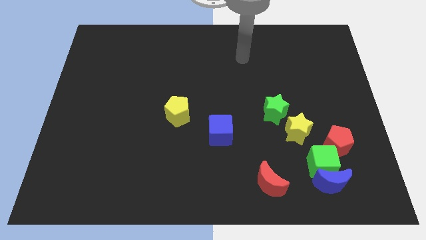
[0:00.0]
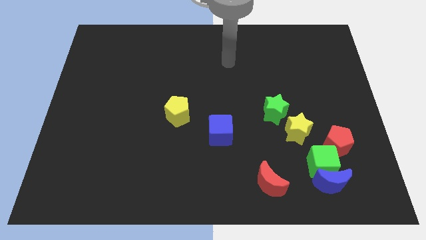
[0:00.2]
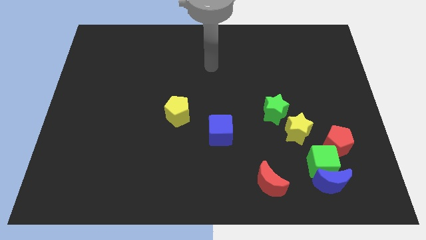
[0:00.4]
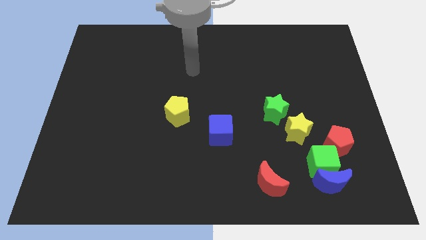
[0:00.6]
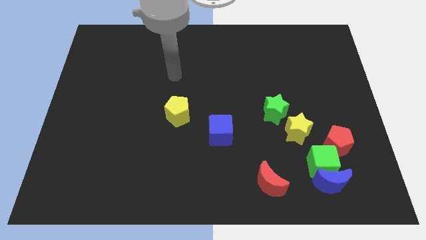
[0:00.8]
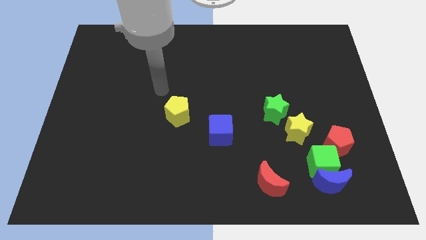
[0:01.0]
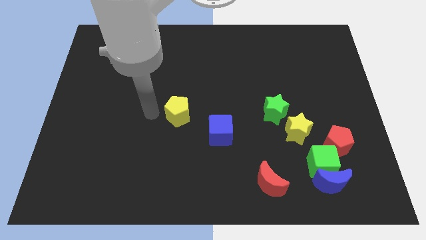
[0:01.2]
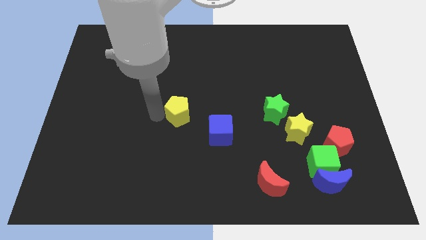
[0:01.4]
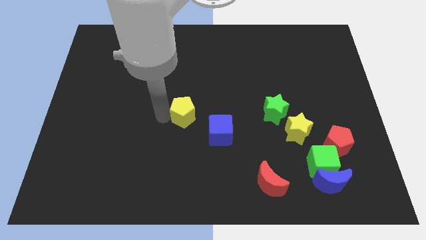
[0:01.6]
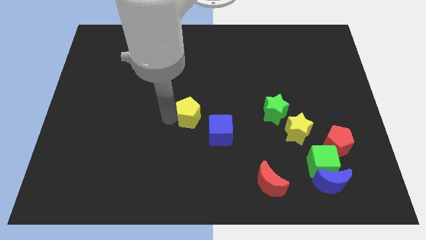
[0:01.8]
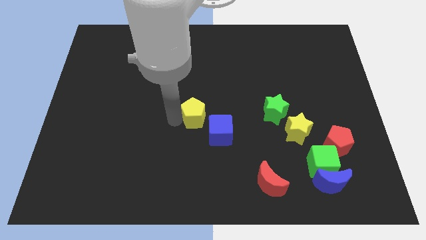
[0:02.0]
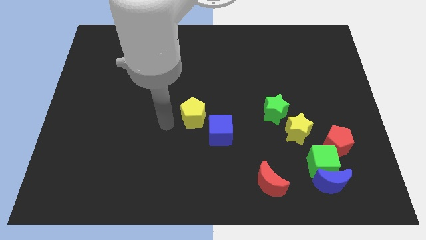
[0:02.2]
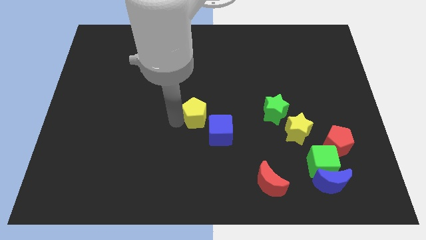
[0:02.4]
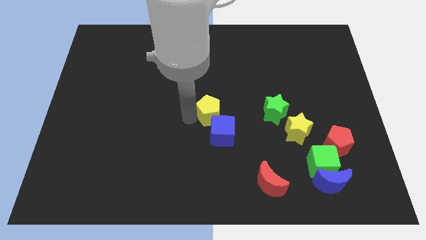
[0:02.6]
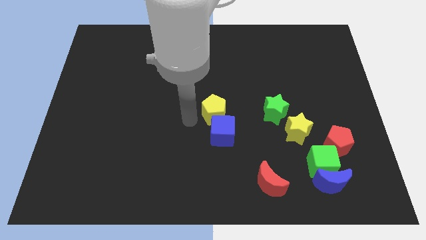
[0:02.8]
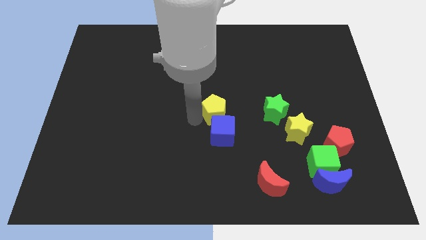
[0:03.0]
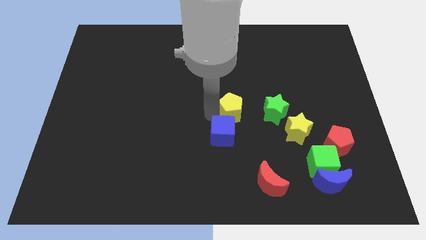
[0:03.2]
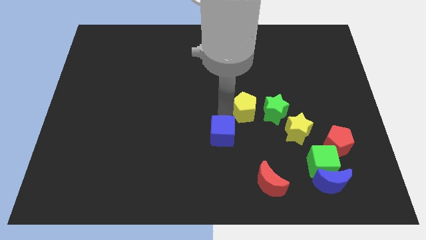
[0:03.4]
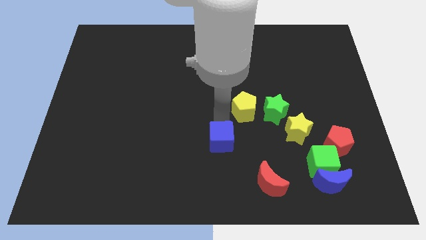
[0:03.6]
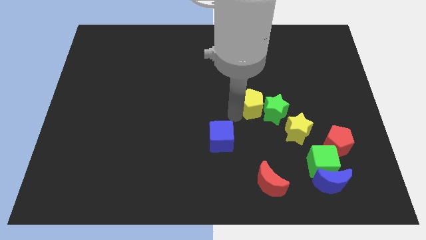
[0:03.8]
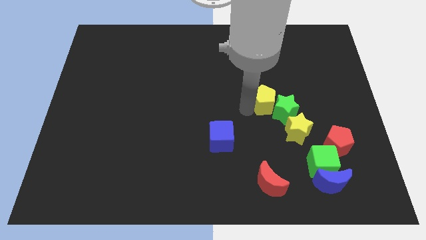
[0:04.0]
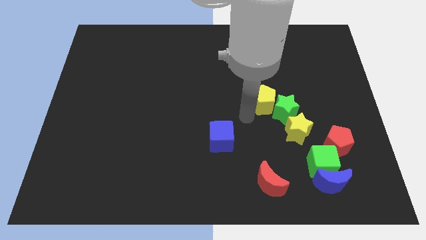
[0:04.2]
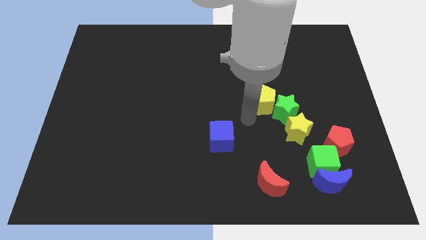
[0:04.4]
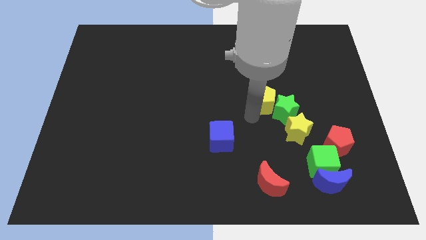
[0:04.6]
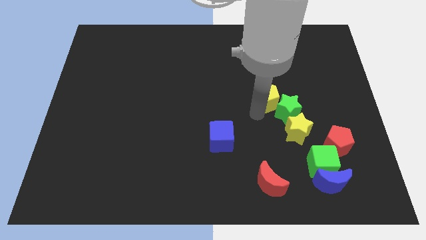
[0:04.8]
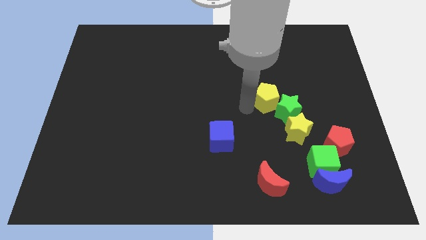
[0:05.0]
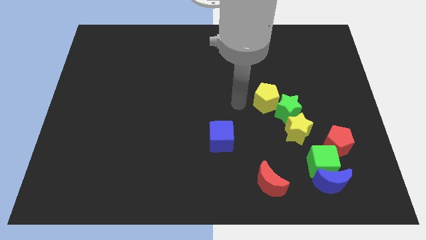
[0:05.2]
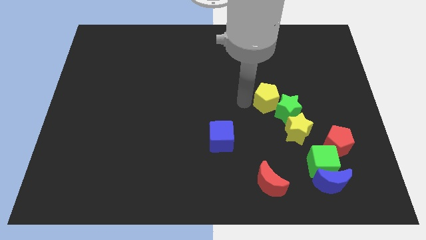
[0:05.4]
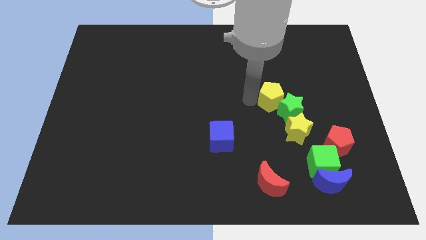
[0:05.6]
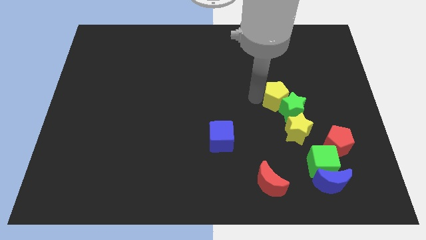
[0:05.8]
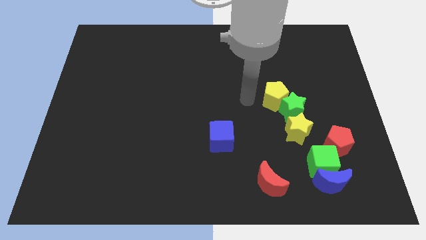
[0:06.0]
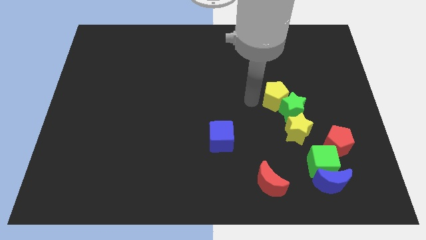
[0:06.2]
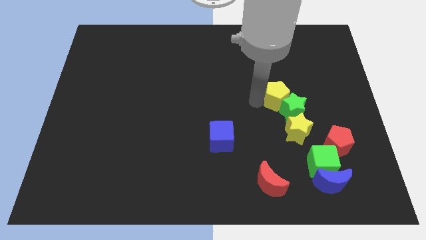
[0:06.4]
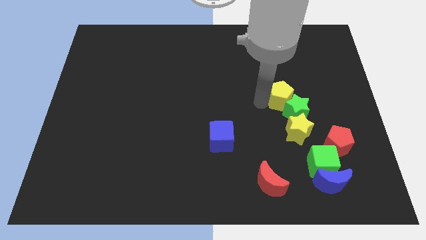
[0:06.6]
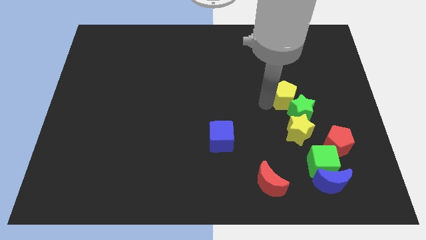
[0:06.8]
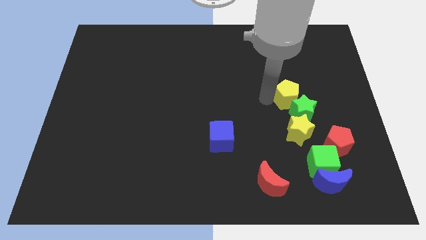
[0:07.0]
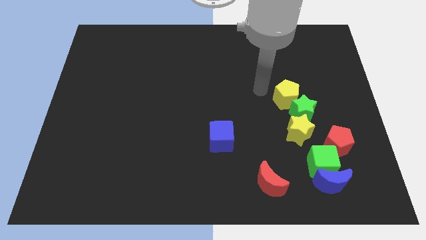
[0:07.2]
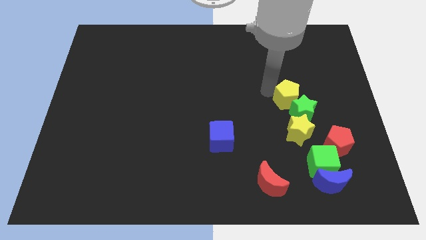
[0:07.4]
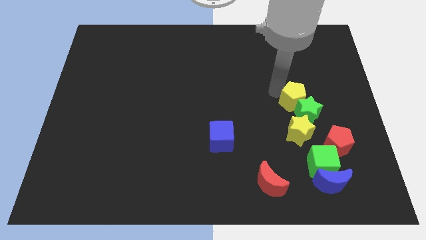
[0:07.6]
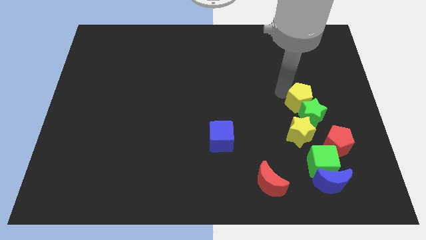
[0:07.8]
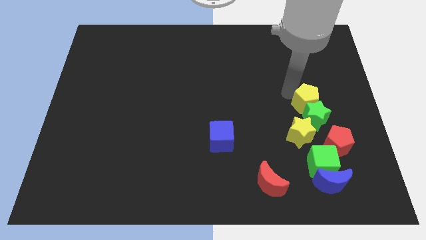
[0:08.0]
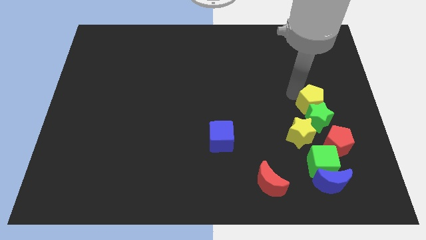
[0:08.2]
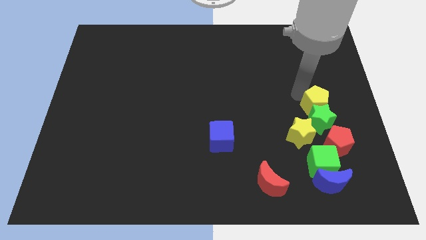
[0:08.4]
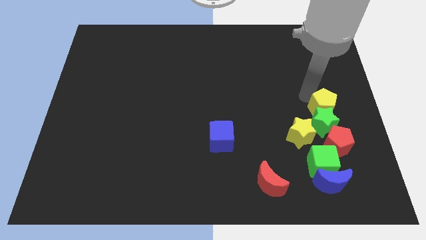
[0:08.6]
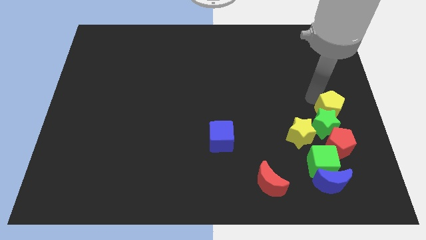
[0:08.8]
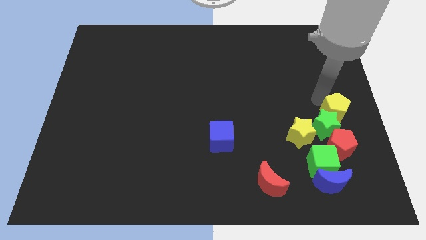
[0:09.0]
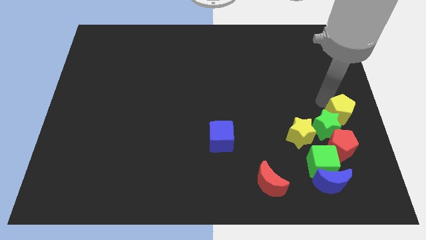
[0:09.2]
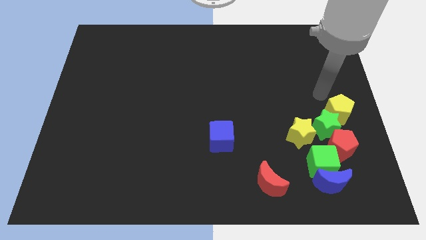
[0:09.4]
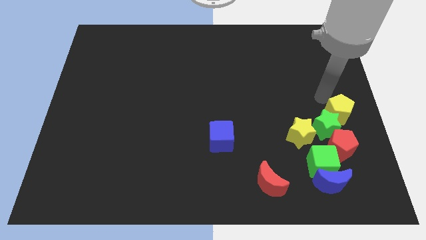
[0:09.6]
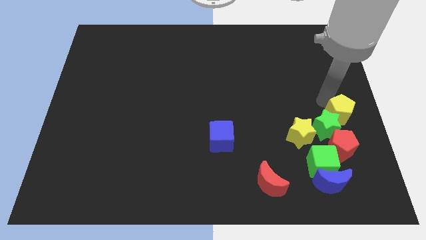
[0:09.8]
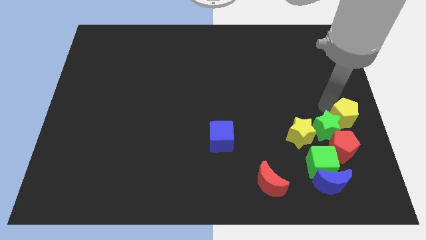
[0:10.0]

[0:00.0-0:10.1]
put the yellow pentagon right of the yellow star

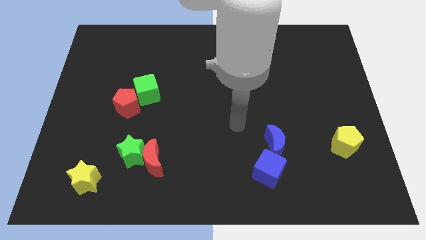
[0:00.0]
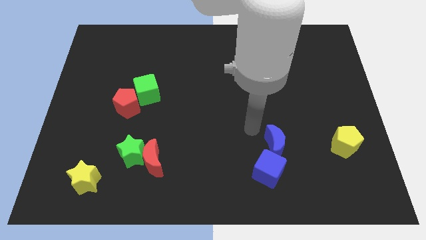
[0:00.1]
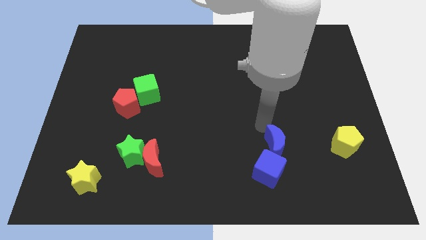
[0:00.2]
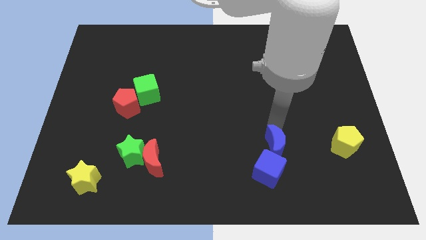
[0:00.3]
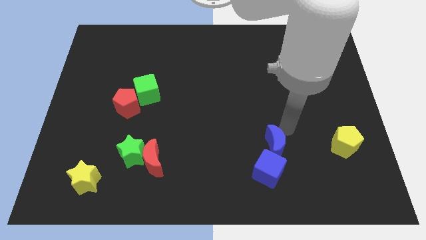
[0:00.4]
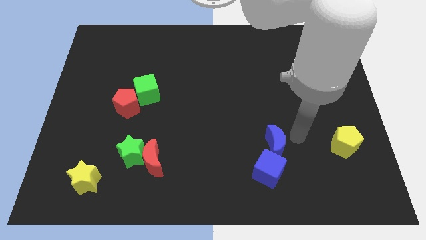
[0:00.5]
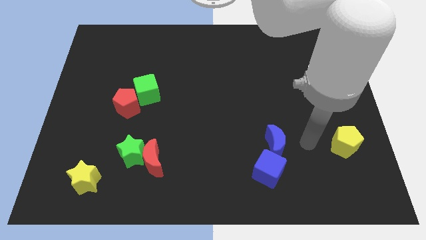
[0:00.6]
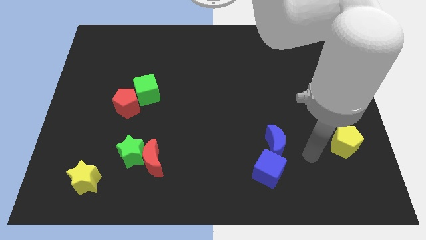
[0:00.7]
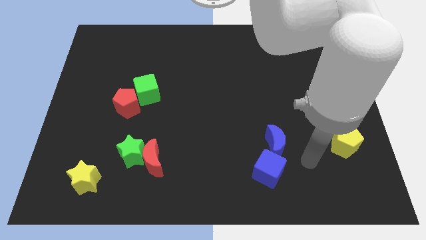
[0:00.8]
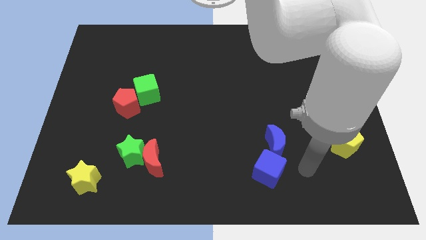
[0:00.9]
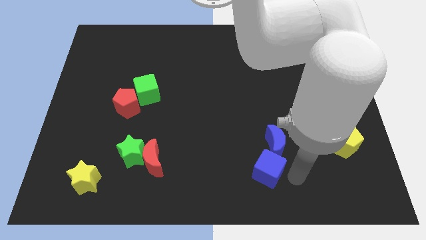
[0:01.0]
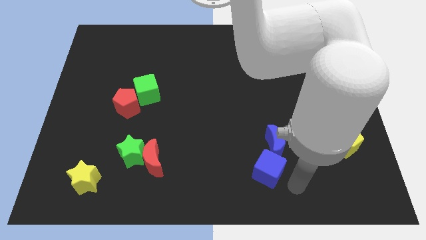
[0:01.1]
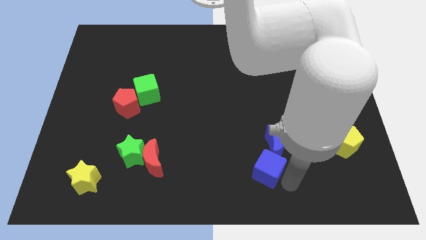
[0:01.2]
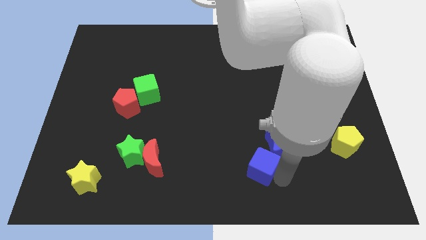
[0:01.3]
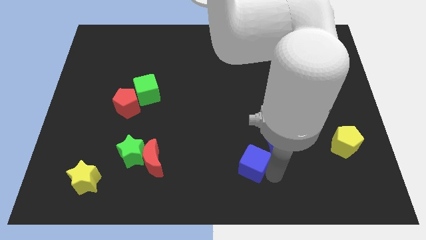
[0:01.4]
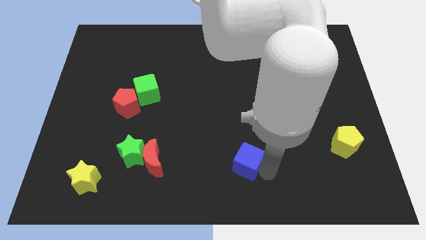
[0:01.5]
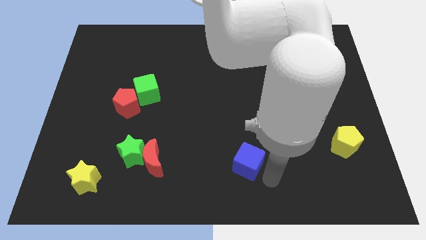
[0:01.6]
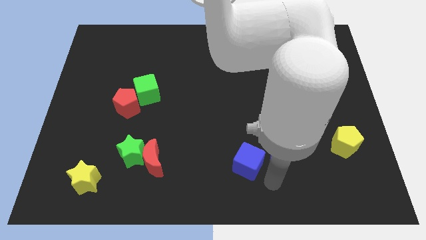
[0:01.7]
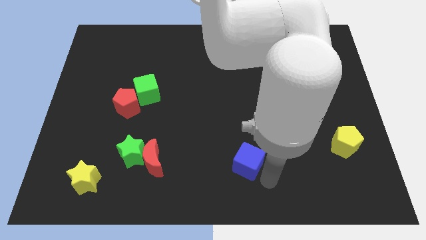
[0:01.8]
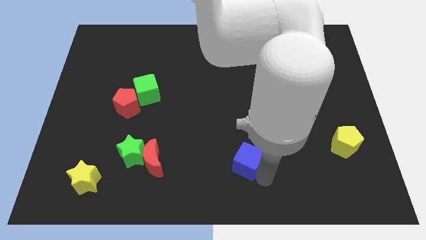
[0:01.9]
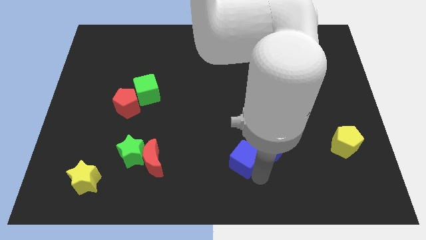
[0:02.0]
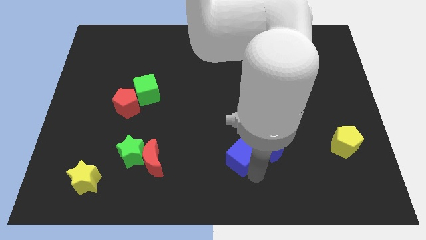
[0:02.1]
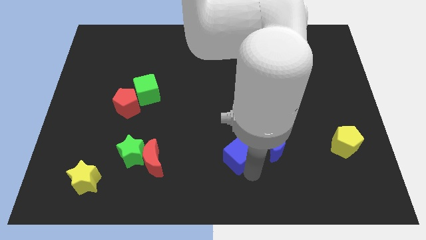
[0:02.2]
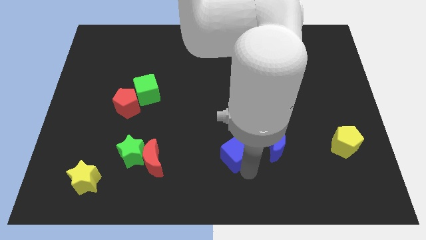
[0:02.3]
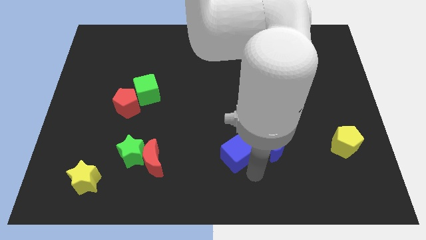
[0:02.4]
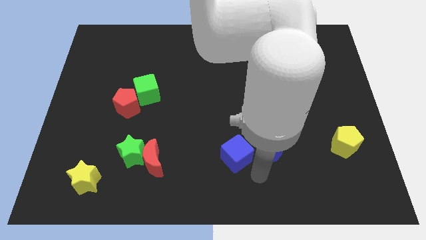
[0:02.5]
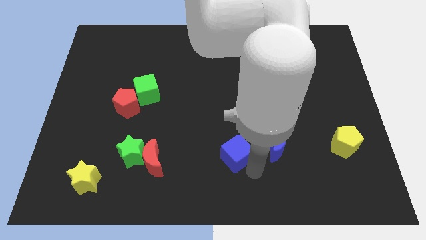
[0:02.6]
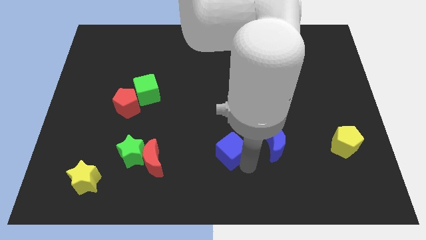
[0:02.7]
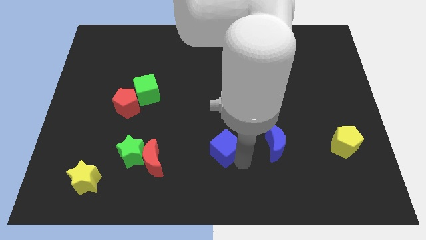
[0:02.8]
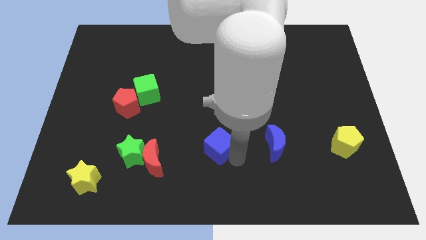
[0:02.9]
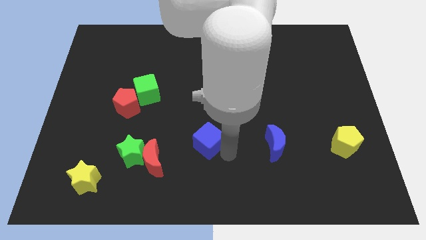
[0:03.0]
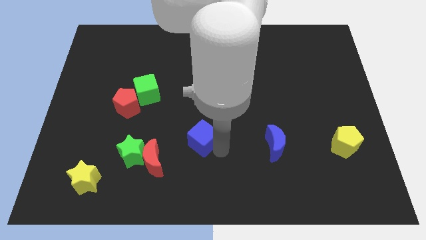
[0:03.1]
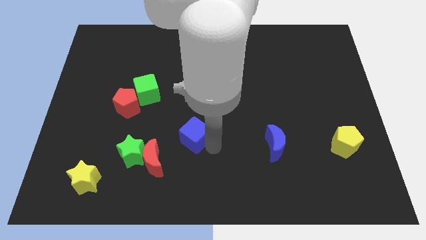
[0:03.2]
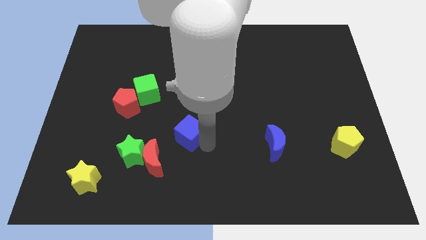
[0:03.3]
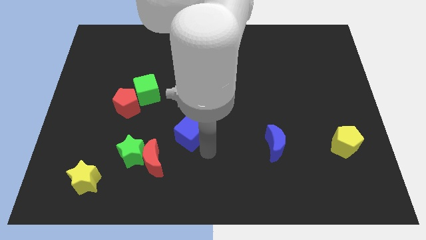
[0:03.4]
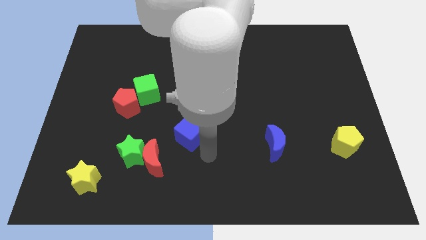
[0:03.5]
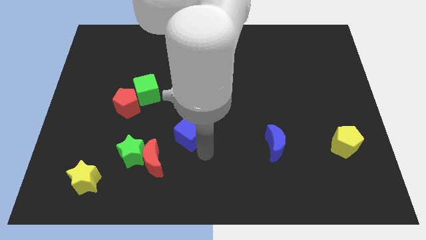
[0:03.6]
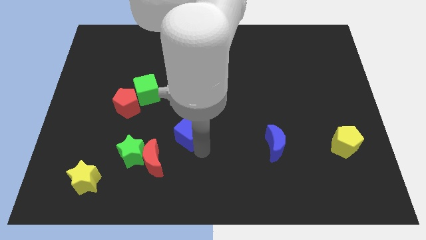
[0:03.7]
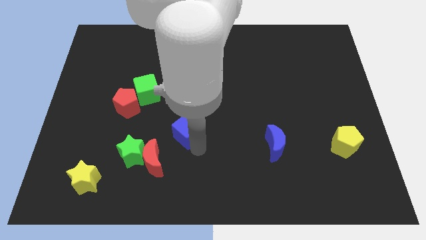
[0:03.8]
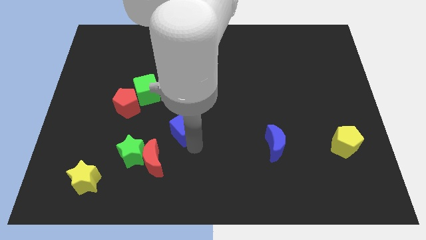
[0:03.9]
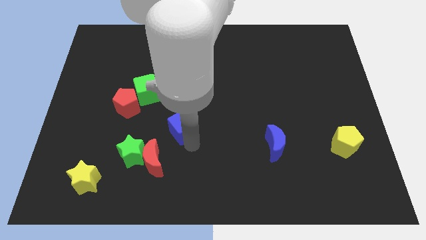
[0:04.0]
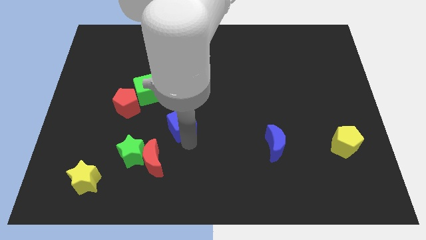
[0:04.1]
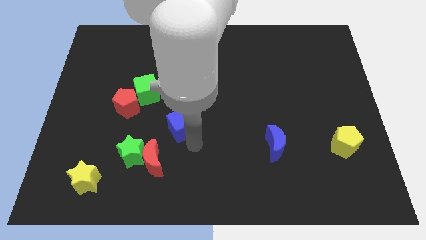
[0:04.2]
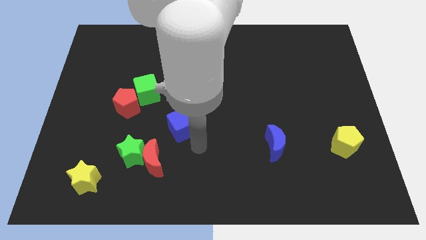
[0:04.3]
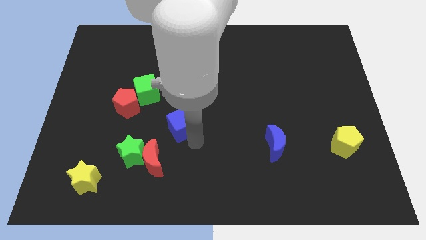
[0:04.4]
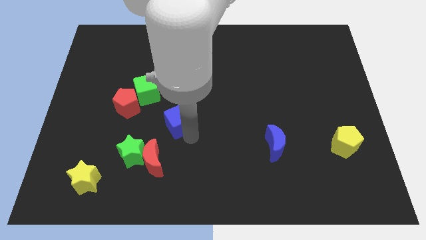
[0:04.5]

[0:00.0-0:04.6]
put the blue cube to the bottom right side of the green cube
